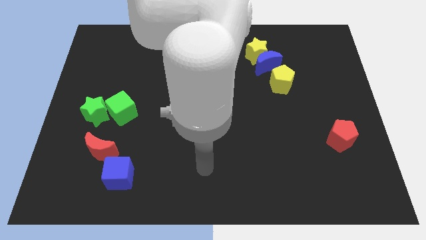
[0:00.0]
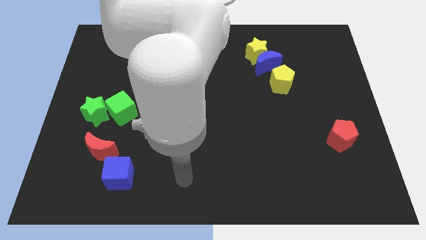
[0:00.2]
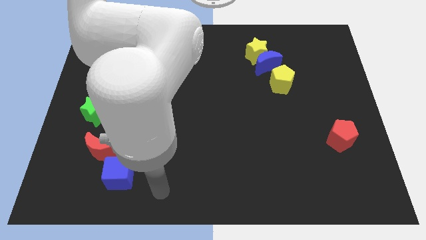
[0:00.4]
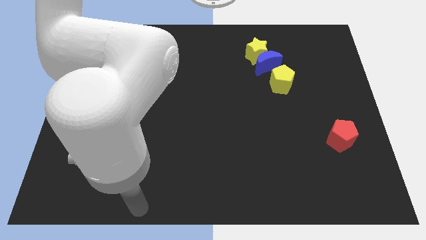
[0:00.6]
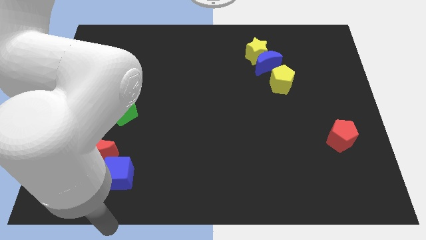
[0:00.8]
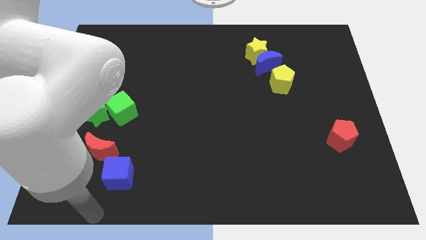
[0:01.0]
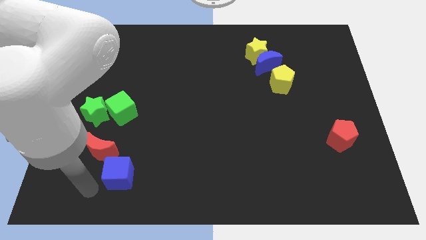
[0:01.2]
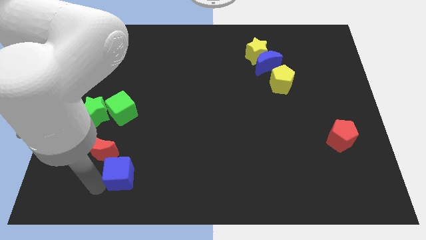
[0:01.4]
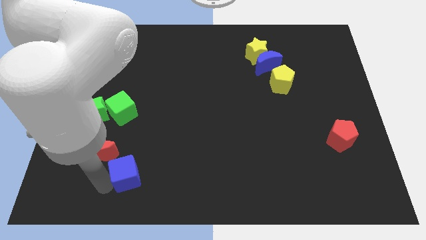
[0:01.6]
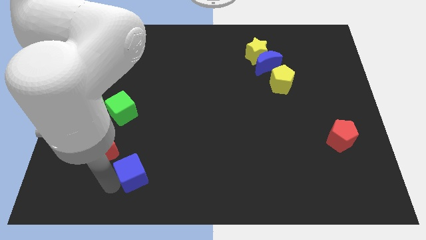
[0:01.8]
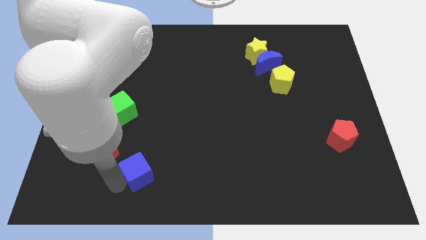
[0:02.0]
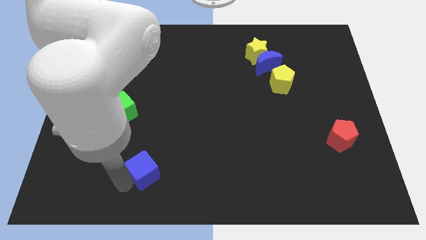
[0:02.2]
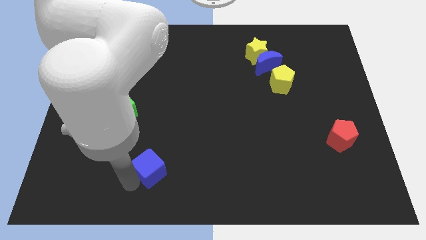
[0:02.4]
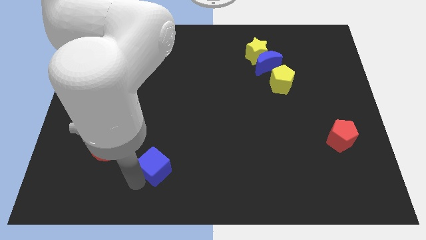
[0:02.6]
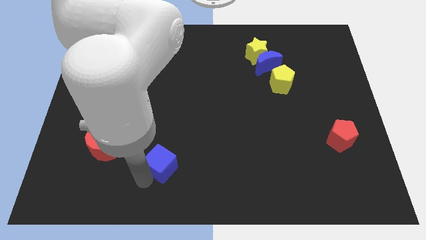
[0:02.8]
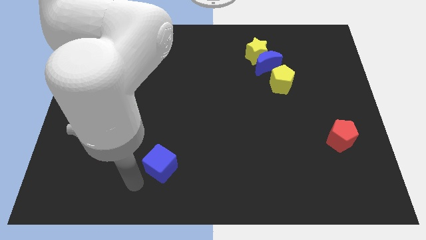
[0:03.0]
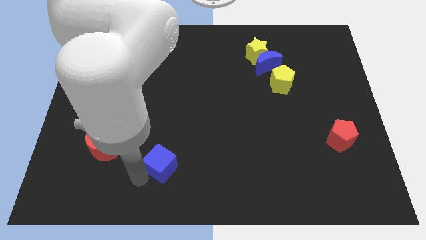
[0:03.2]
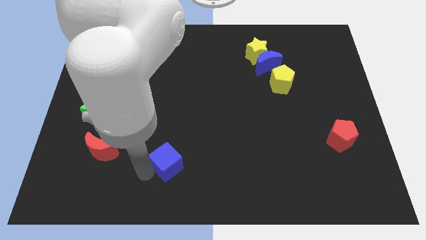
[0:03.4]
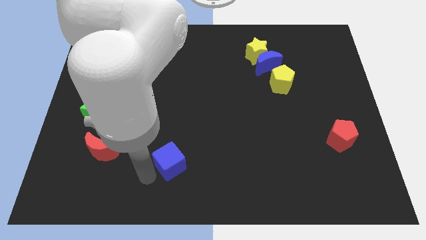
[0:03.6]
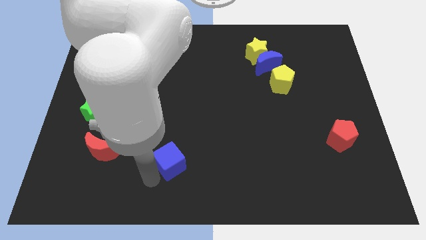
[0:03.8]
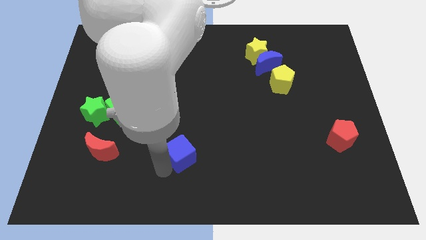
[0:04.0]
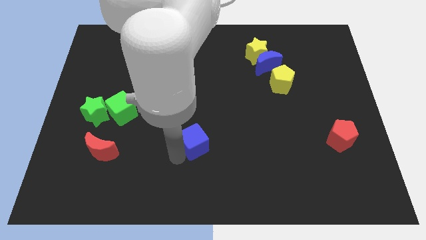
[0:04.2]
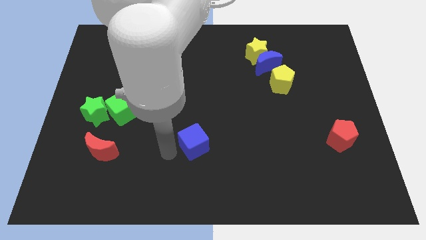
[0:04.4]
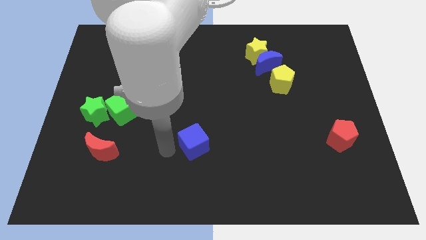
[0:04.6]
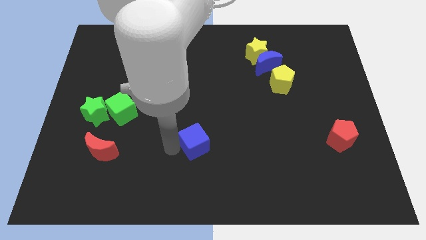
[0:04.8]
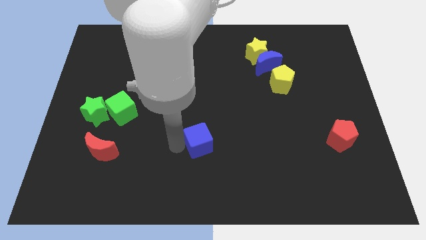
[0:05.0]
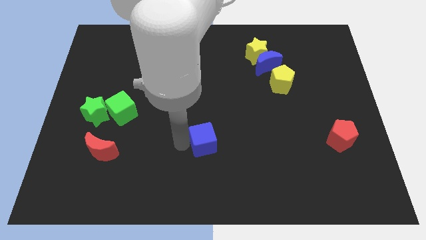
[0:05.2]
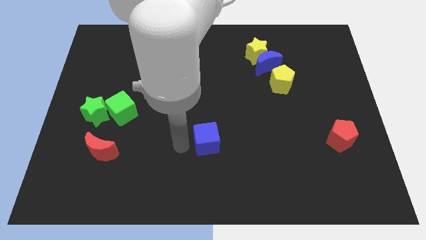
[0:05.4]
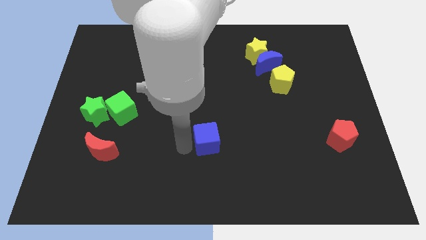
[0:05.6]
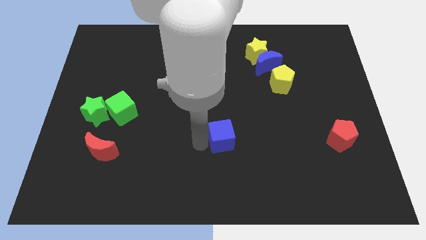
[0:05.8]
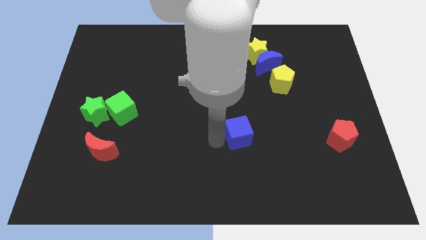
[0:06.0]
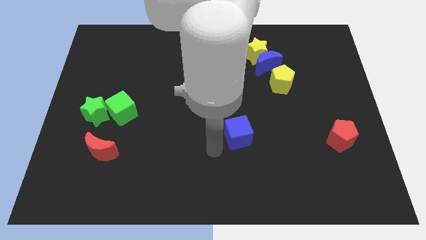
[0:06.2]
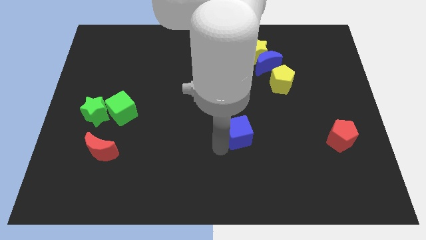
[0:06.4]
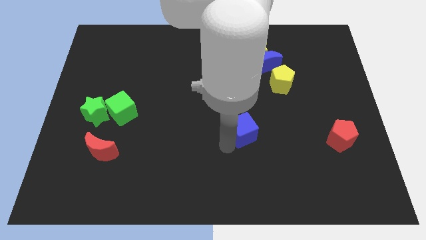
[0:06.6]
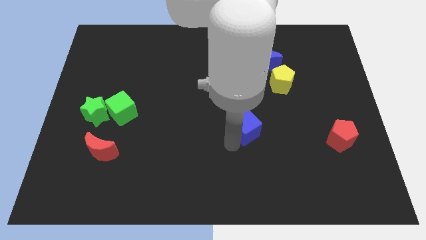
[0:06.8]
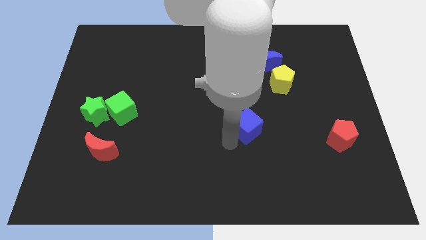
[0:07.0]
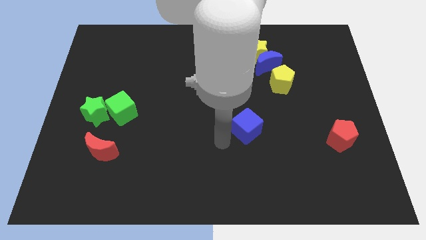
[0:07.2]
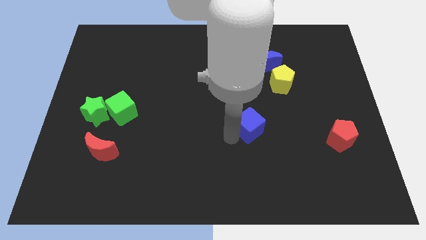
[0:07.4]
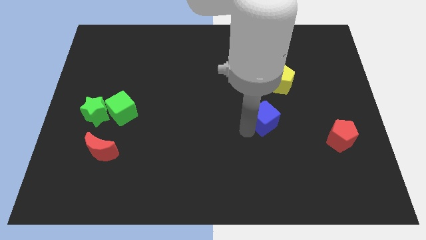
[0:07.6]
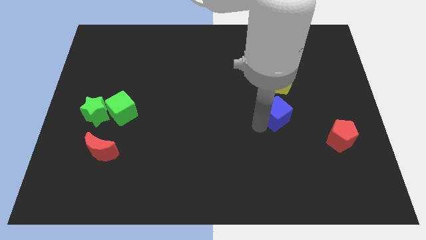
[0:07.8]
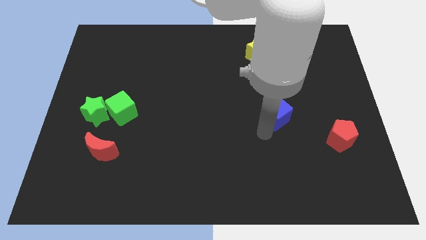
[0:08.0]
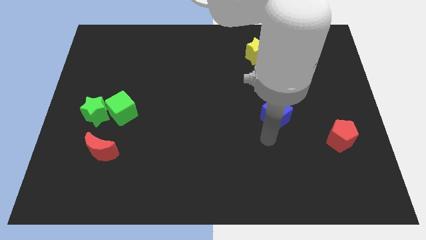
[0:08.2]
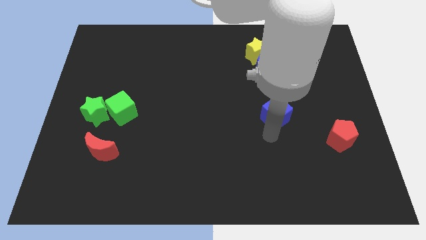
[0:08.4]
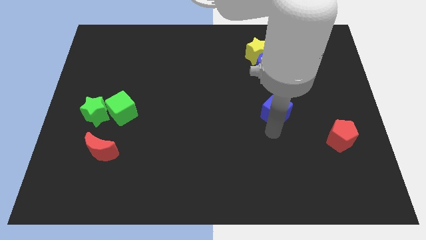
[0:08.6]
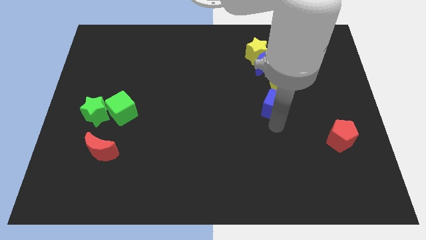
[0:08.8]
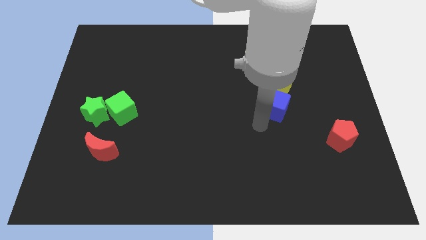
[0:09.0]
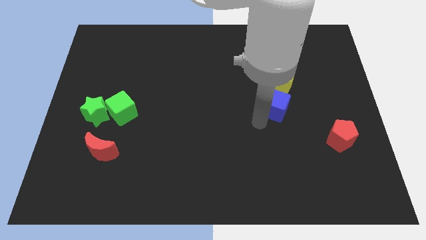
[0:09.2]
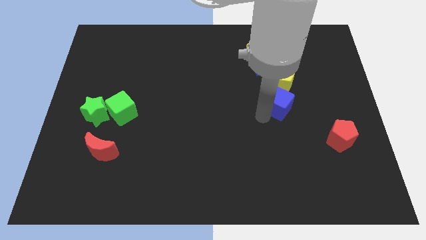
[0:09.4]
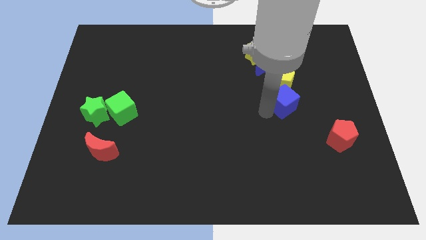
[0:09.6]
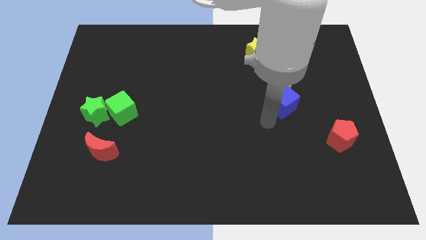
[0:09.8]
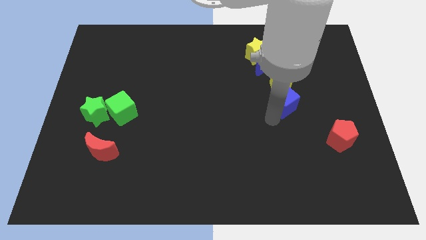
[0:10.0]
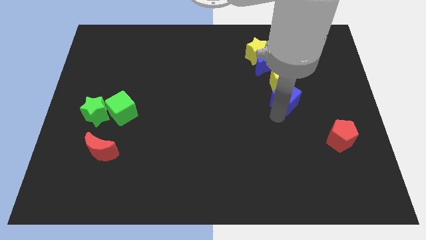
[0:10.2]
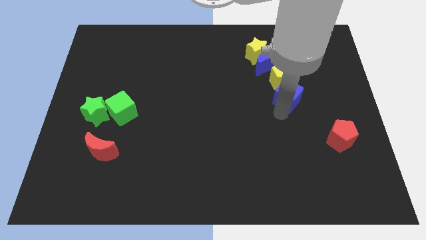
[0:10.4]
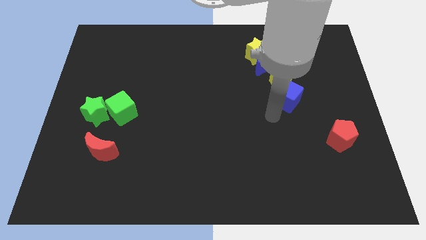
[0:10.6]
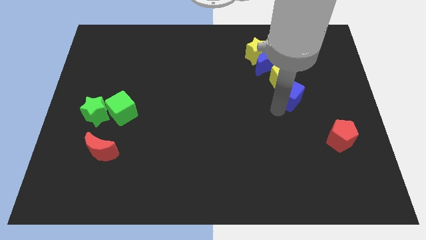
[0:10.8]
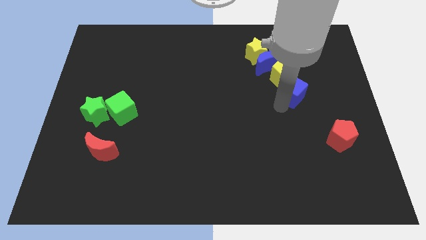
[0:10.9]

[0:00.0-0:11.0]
push the blue cube to the bottom right side of the blue moon

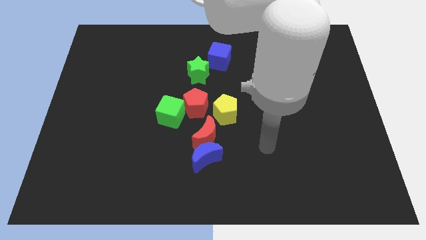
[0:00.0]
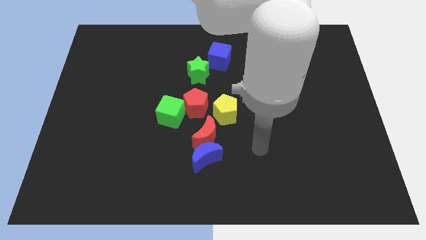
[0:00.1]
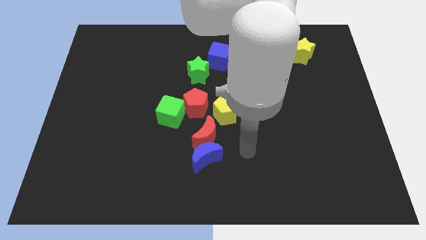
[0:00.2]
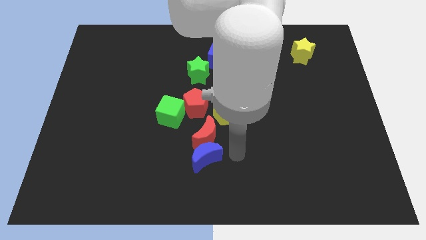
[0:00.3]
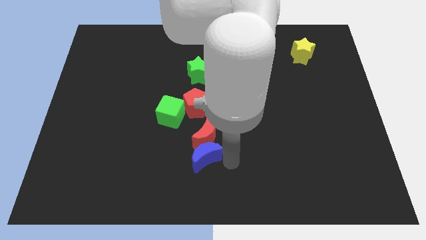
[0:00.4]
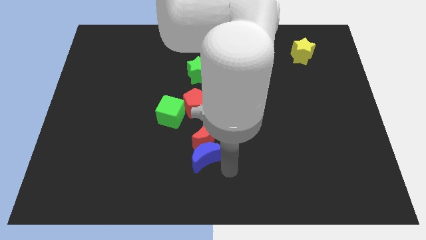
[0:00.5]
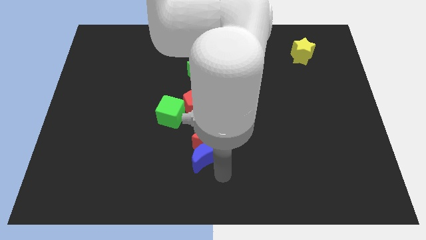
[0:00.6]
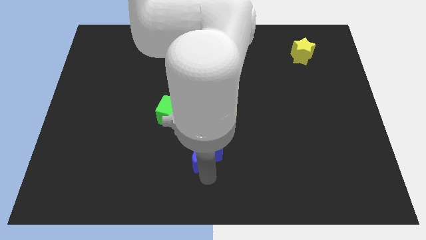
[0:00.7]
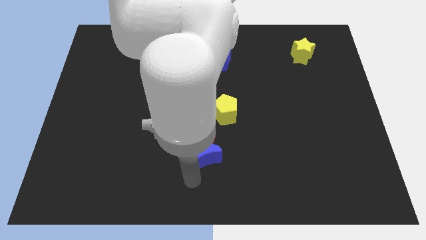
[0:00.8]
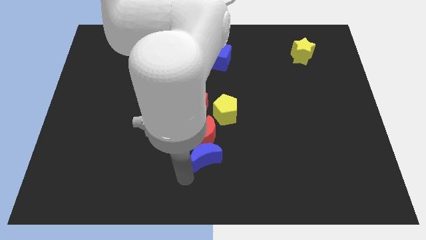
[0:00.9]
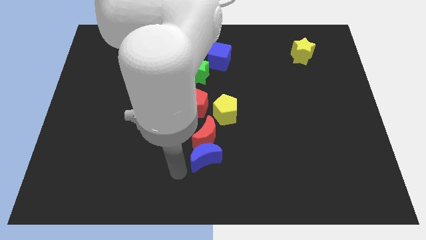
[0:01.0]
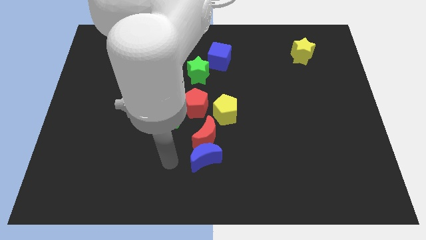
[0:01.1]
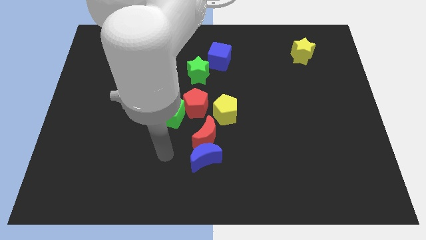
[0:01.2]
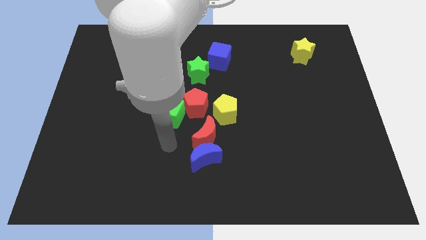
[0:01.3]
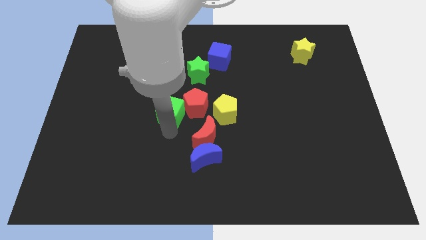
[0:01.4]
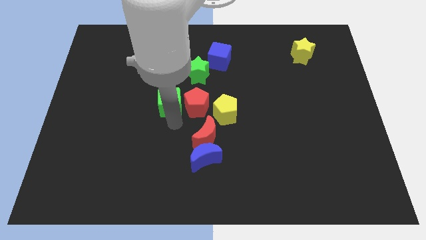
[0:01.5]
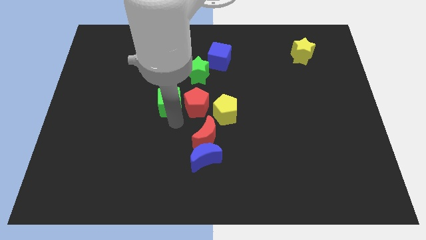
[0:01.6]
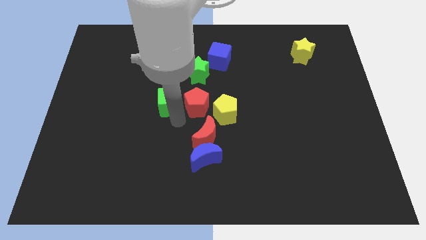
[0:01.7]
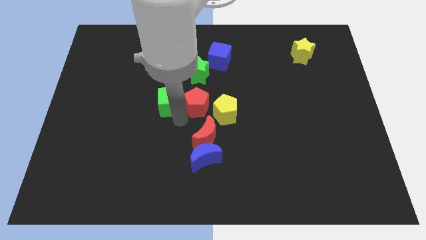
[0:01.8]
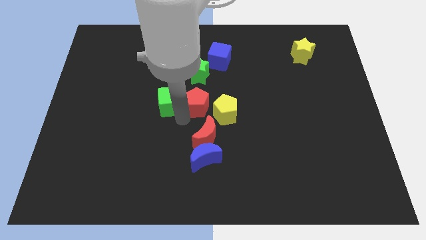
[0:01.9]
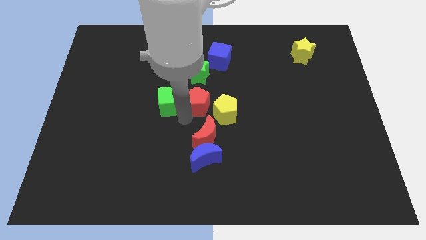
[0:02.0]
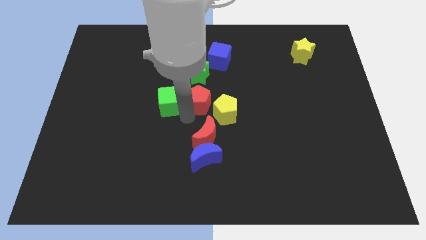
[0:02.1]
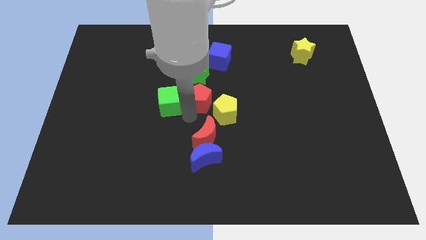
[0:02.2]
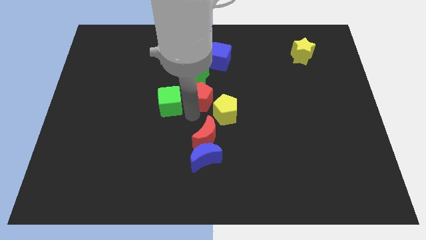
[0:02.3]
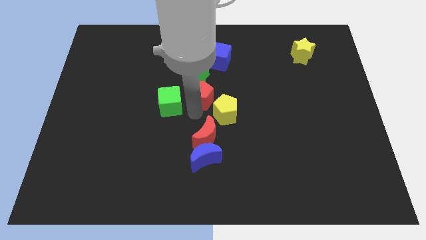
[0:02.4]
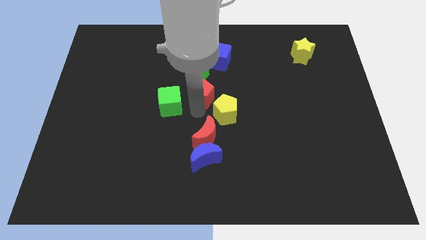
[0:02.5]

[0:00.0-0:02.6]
move the red pentagon to the bottom right side of the green star

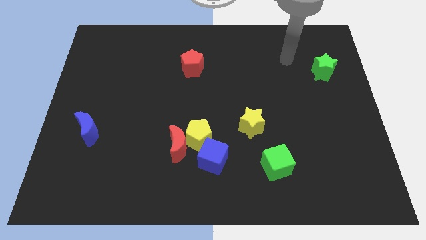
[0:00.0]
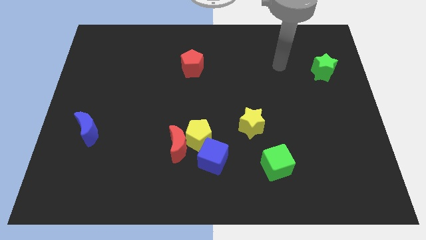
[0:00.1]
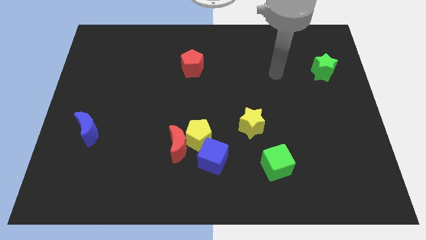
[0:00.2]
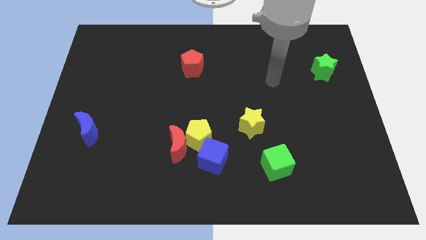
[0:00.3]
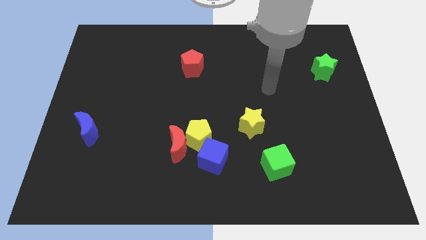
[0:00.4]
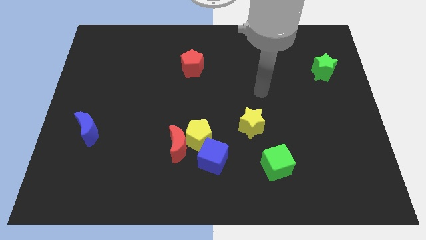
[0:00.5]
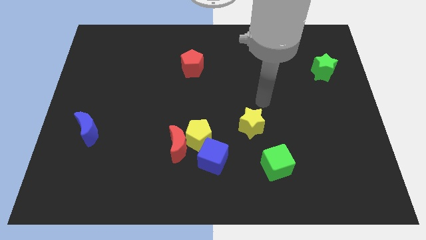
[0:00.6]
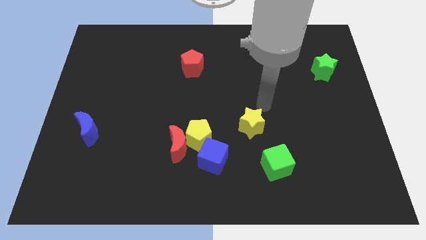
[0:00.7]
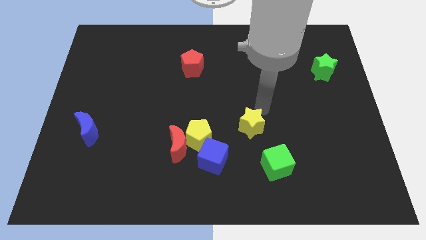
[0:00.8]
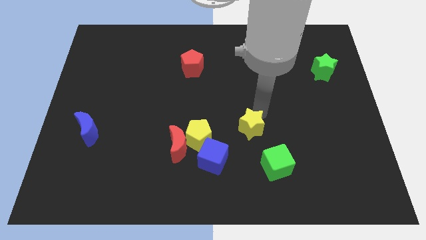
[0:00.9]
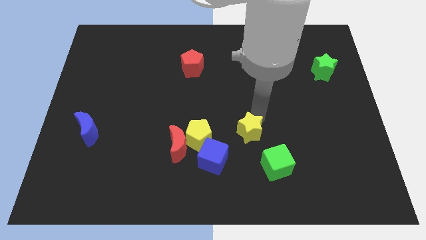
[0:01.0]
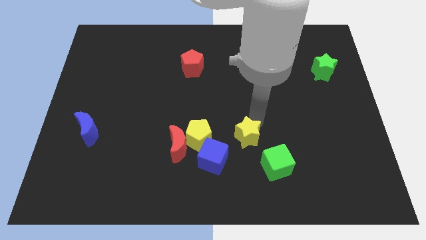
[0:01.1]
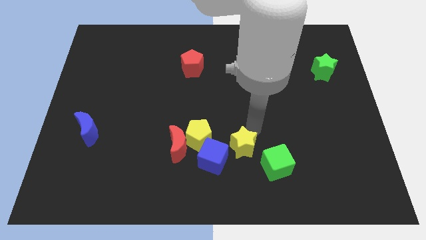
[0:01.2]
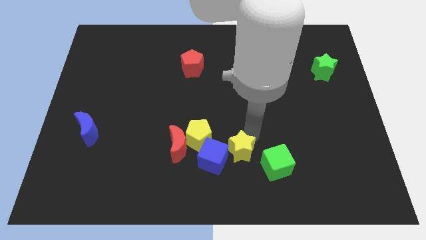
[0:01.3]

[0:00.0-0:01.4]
put the yellow star to the bottom right of the yellow pentagon
